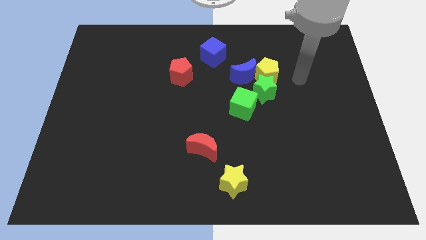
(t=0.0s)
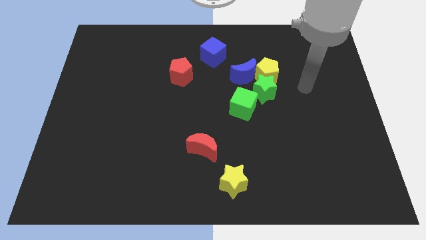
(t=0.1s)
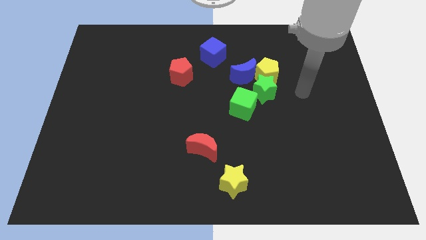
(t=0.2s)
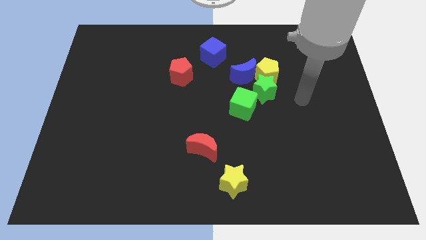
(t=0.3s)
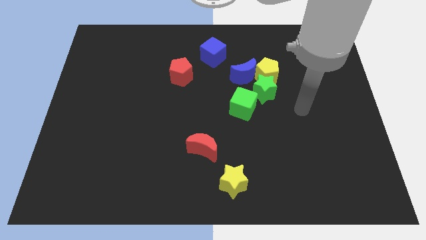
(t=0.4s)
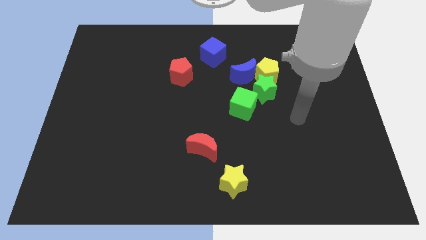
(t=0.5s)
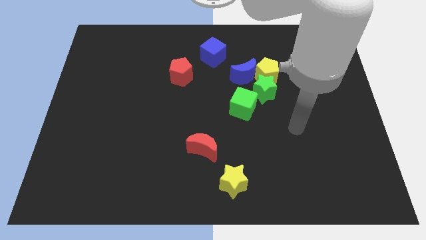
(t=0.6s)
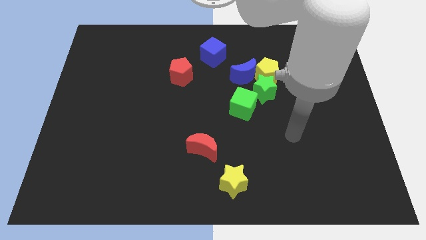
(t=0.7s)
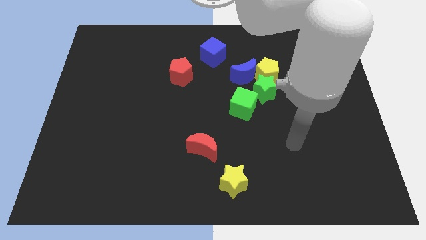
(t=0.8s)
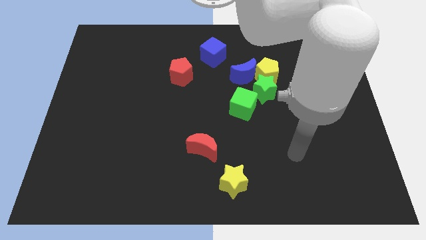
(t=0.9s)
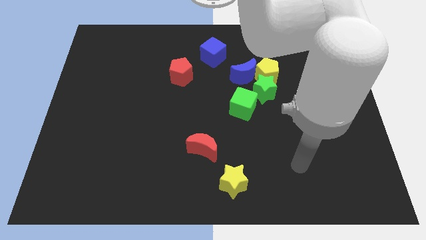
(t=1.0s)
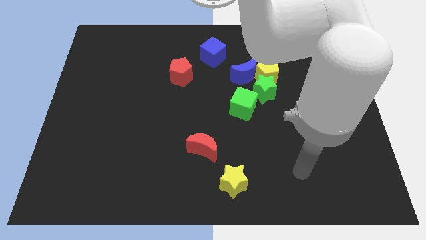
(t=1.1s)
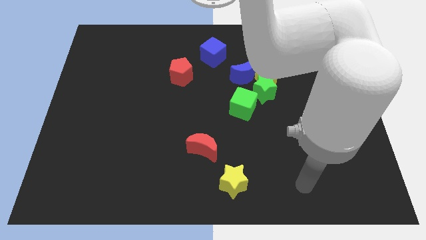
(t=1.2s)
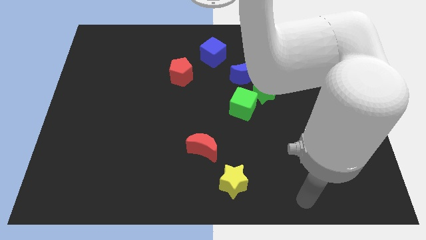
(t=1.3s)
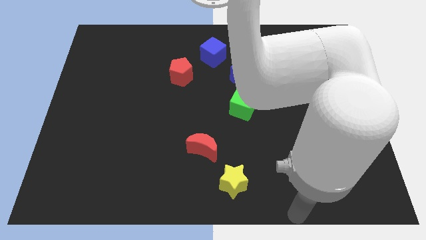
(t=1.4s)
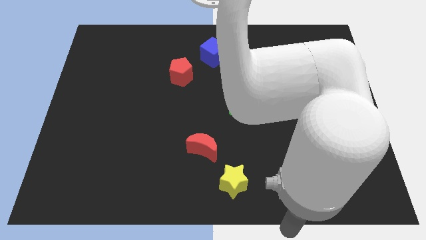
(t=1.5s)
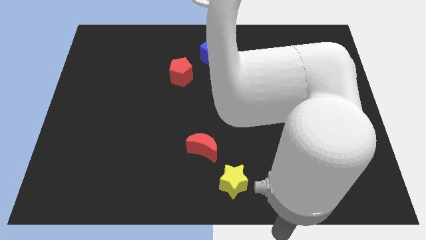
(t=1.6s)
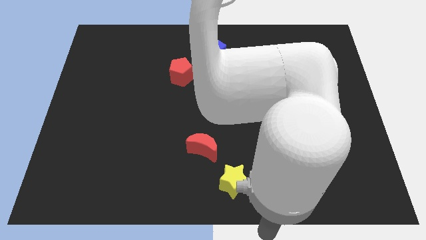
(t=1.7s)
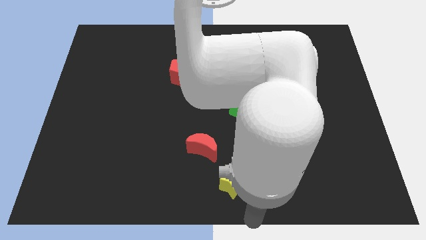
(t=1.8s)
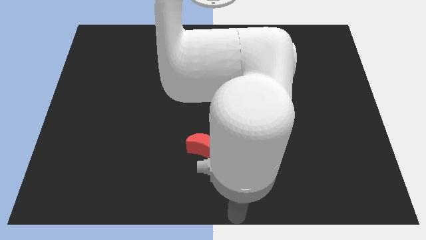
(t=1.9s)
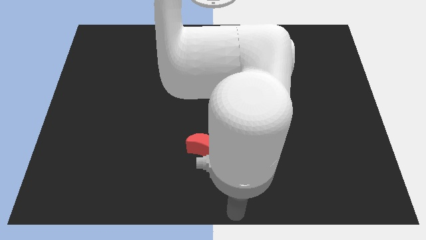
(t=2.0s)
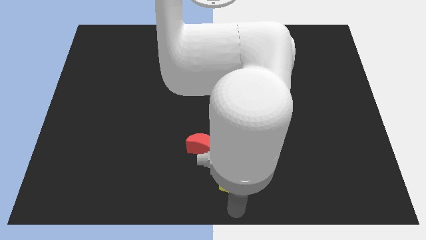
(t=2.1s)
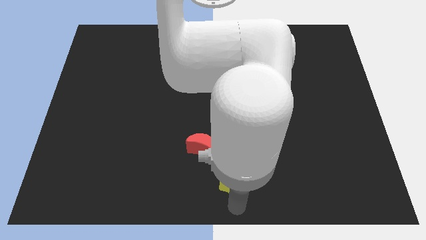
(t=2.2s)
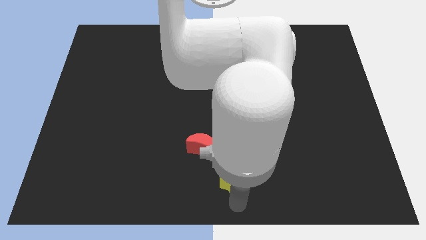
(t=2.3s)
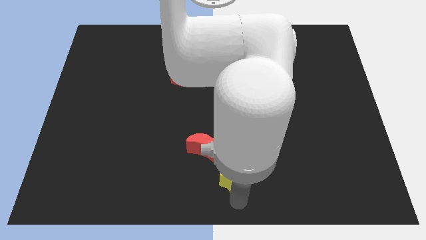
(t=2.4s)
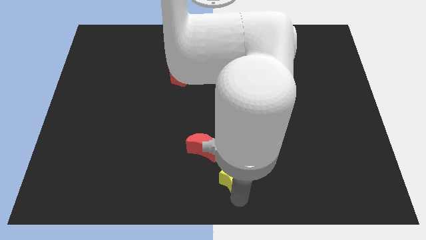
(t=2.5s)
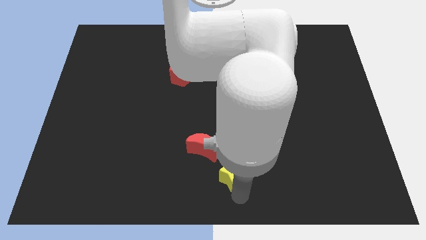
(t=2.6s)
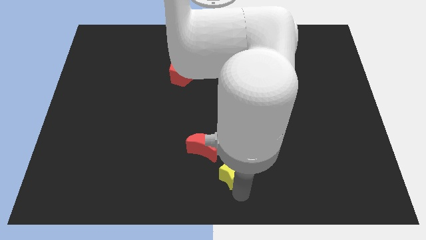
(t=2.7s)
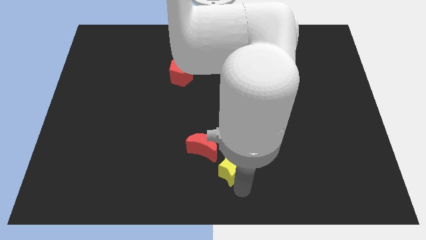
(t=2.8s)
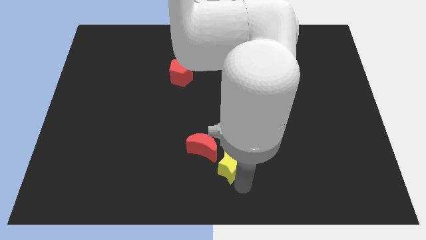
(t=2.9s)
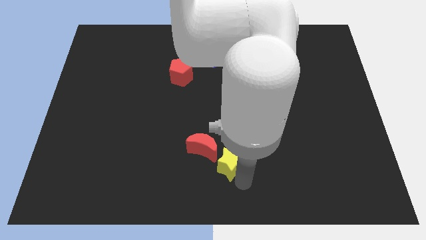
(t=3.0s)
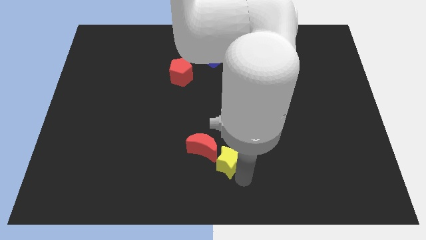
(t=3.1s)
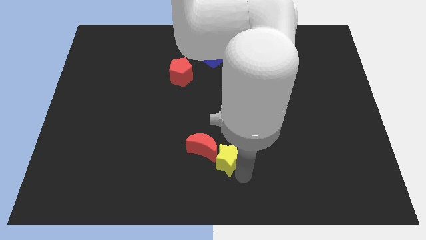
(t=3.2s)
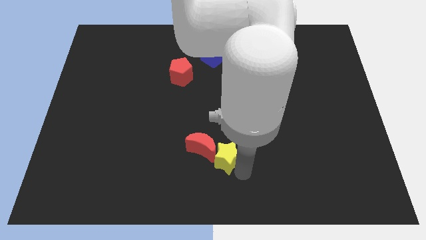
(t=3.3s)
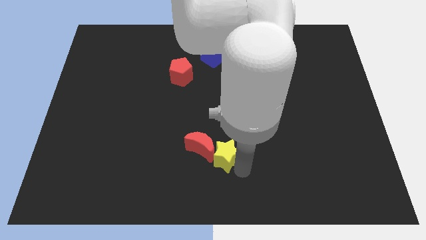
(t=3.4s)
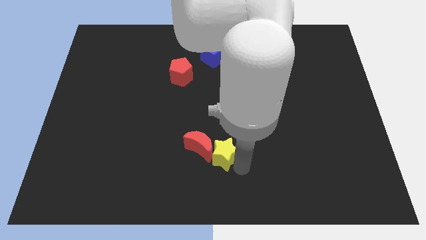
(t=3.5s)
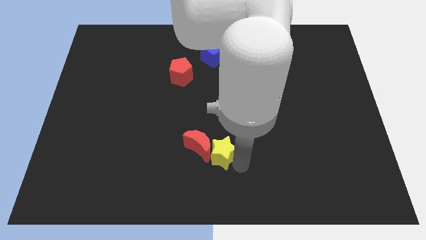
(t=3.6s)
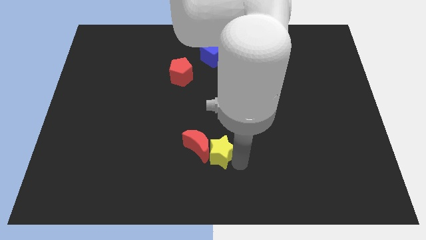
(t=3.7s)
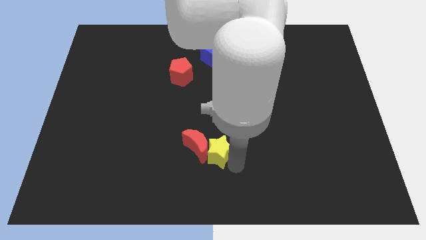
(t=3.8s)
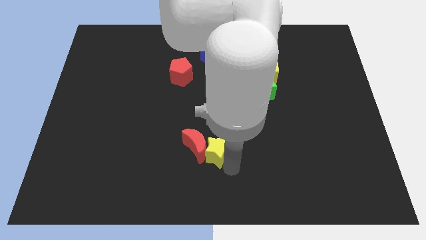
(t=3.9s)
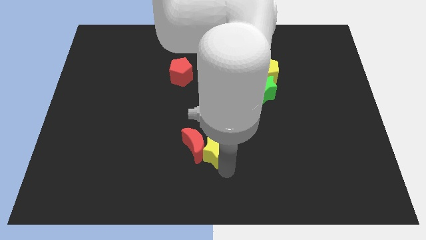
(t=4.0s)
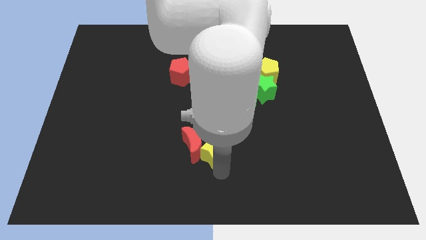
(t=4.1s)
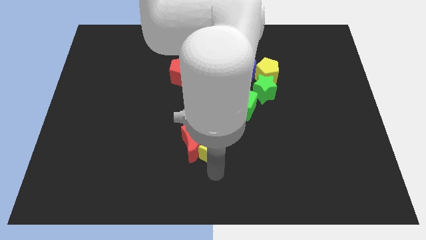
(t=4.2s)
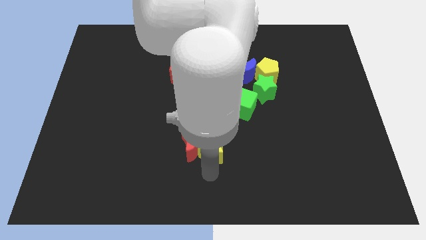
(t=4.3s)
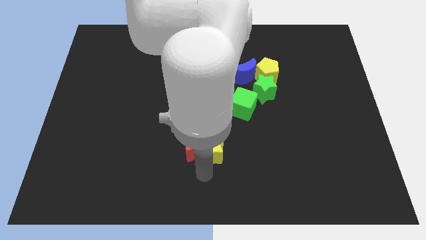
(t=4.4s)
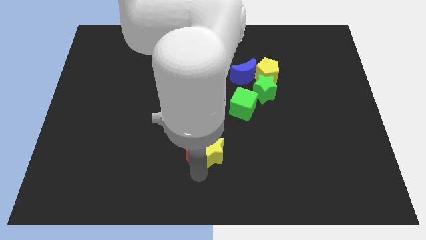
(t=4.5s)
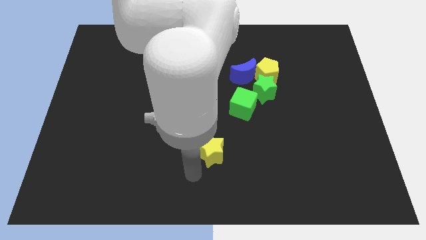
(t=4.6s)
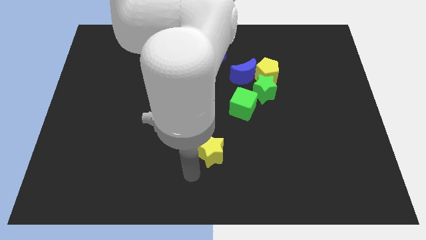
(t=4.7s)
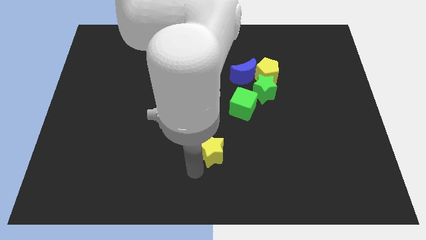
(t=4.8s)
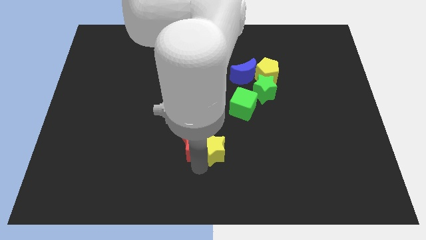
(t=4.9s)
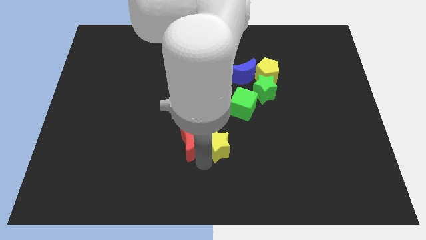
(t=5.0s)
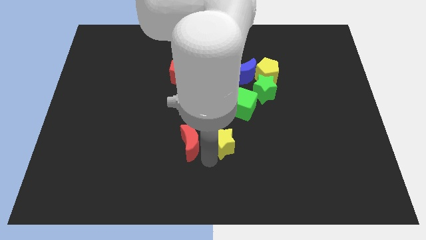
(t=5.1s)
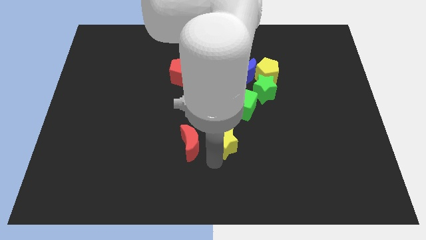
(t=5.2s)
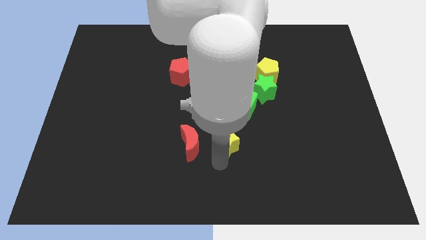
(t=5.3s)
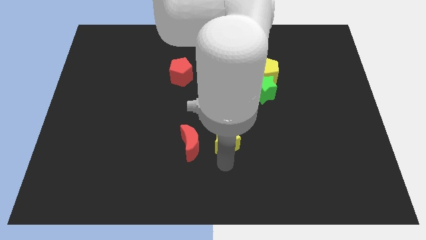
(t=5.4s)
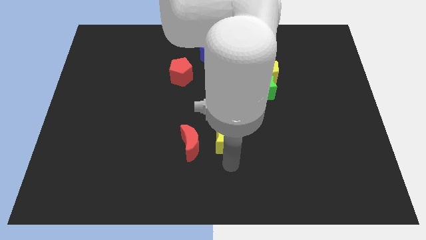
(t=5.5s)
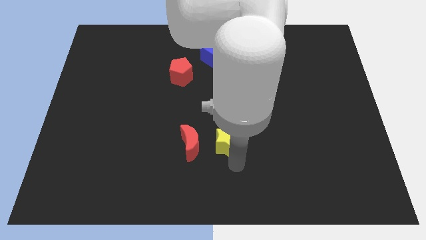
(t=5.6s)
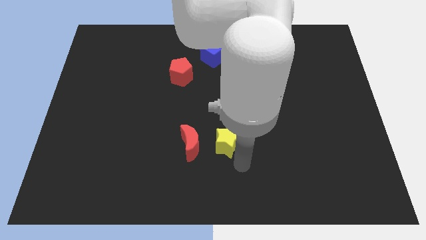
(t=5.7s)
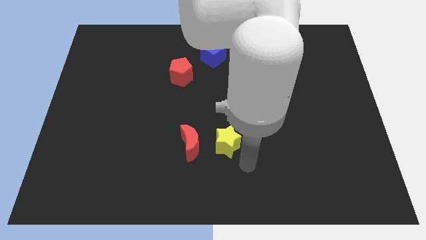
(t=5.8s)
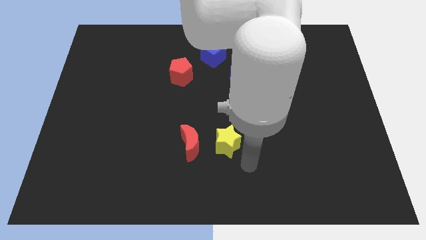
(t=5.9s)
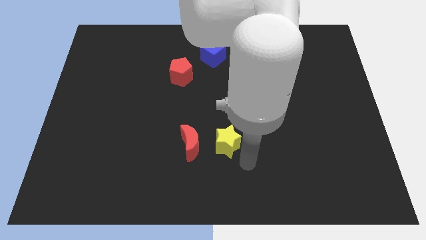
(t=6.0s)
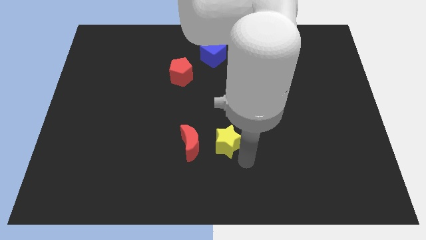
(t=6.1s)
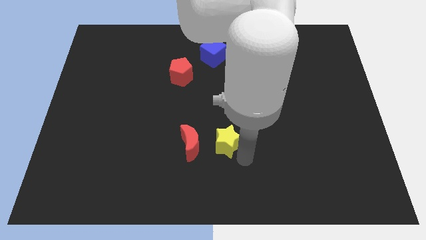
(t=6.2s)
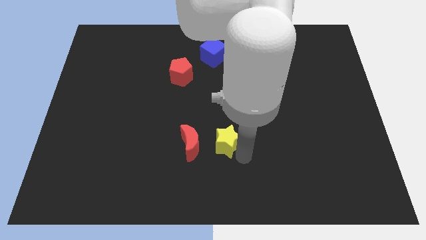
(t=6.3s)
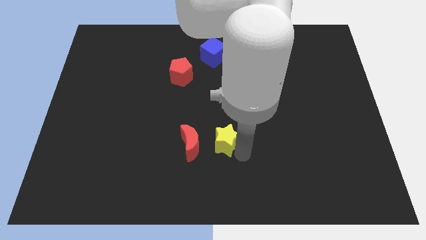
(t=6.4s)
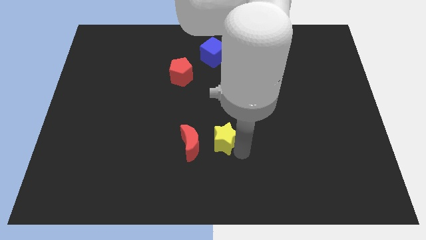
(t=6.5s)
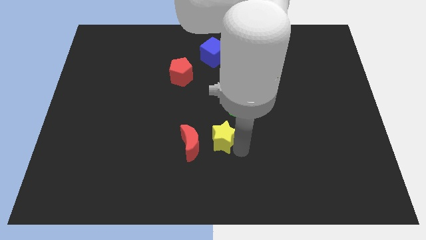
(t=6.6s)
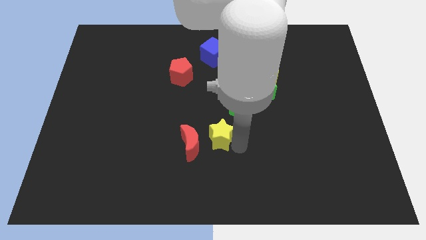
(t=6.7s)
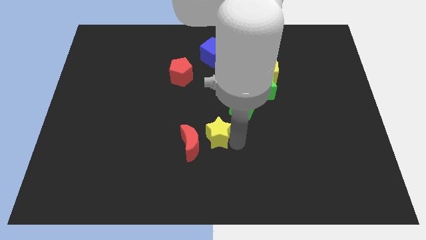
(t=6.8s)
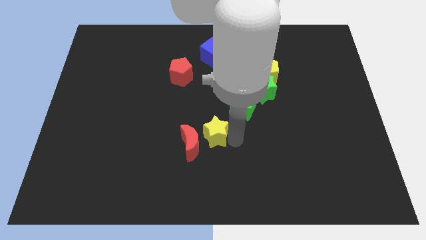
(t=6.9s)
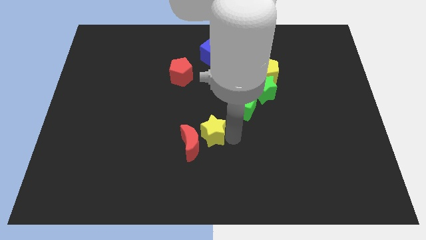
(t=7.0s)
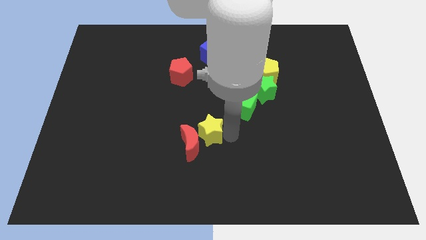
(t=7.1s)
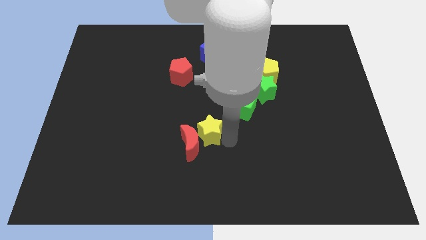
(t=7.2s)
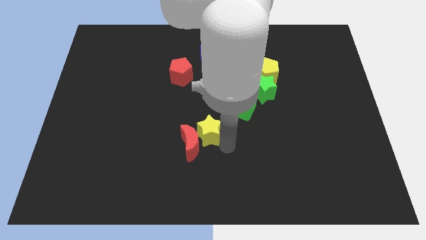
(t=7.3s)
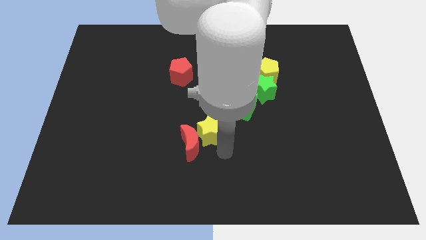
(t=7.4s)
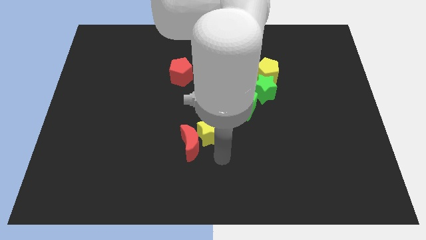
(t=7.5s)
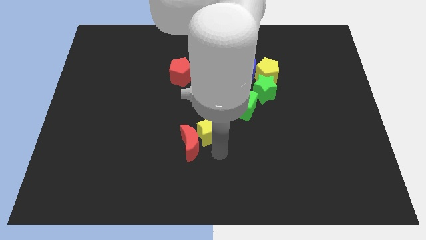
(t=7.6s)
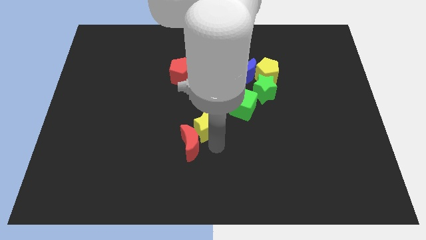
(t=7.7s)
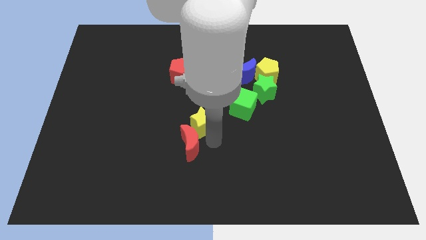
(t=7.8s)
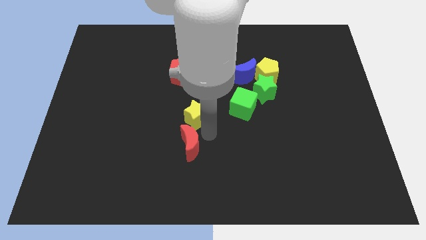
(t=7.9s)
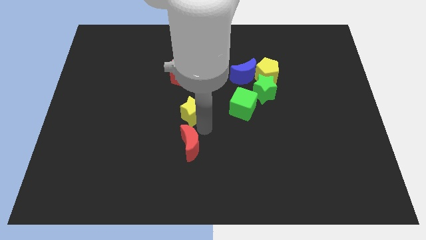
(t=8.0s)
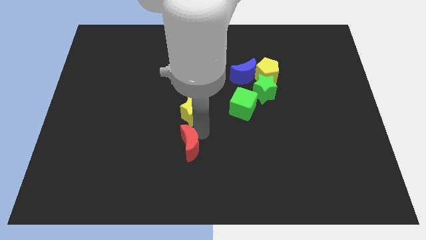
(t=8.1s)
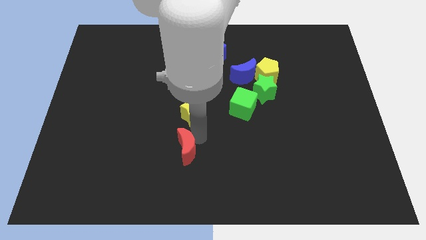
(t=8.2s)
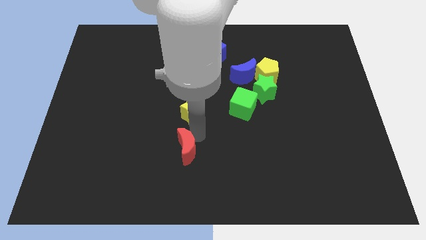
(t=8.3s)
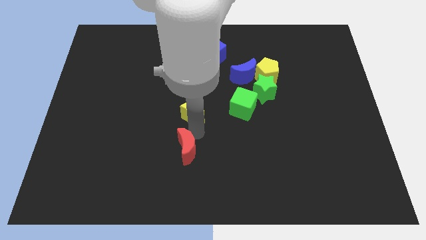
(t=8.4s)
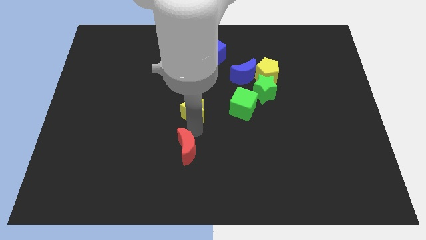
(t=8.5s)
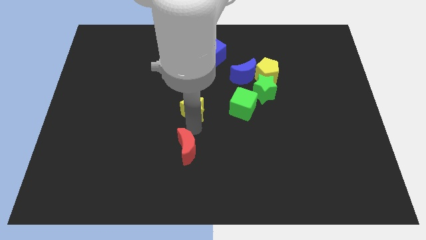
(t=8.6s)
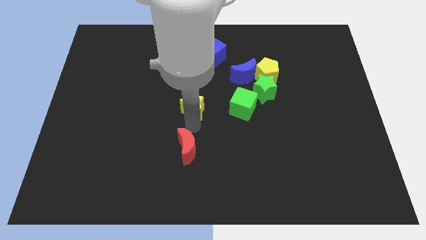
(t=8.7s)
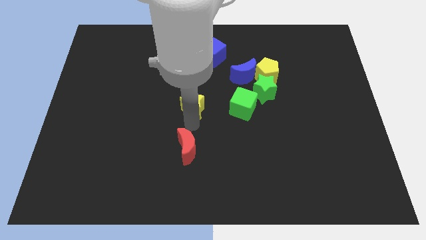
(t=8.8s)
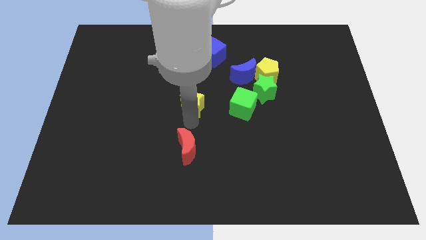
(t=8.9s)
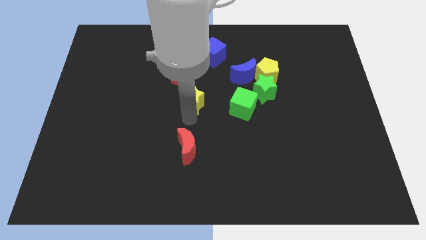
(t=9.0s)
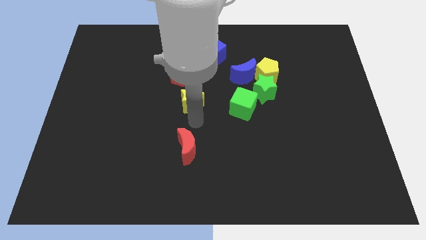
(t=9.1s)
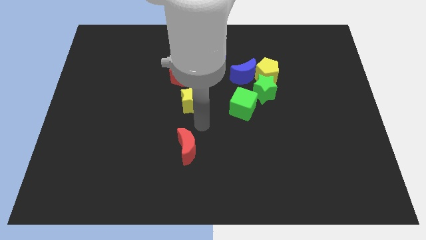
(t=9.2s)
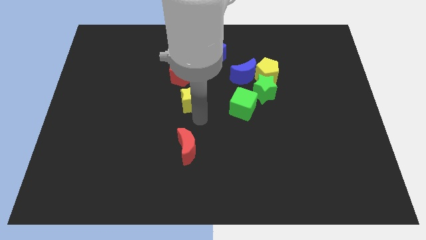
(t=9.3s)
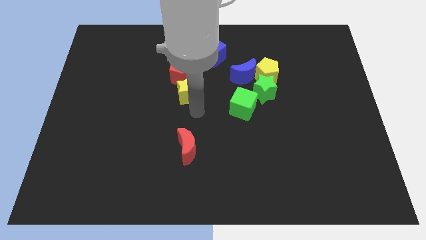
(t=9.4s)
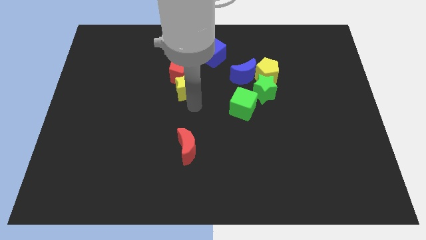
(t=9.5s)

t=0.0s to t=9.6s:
put the yellow star next to the red pentagon
